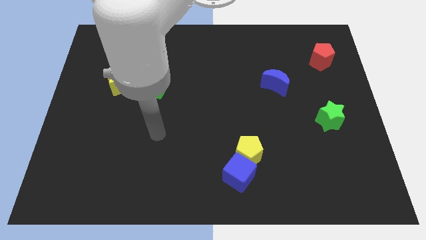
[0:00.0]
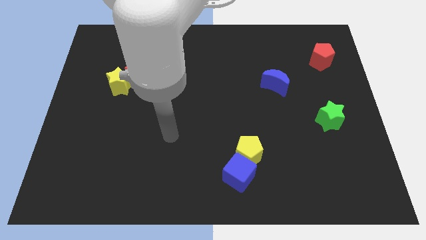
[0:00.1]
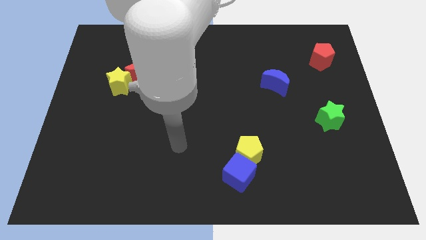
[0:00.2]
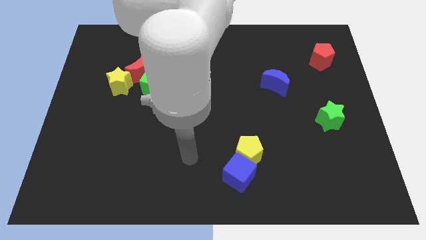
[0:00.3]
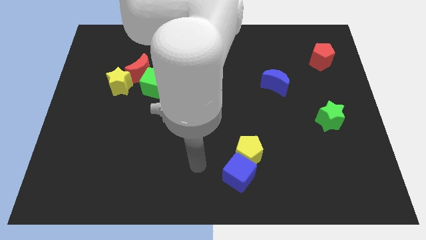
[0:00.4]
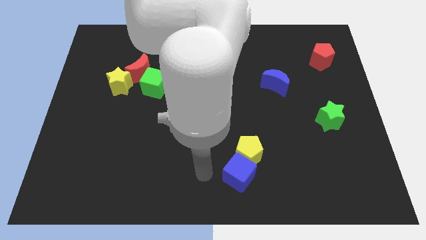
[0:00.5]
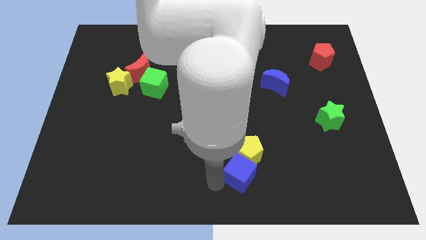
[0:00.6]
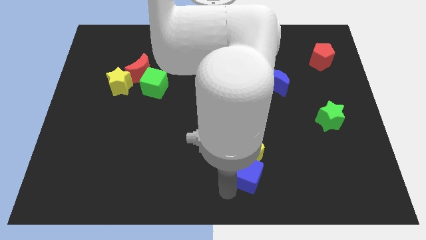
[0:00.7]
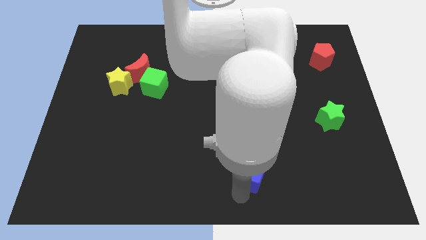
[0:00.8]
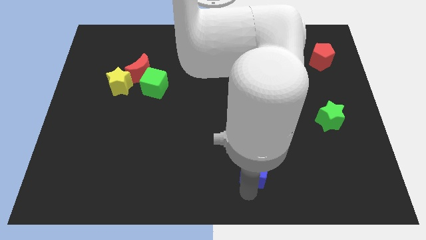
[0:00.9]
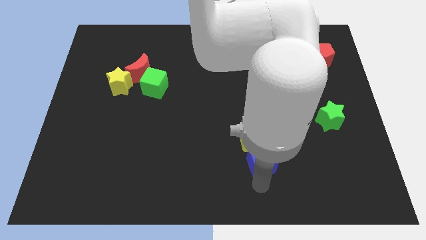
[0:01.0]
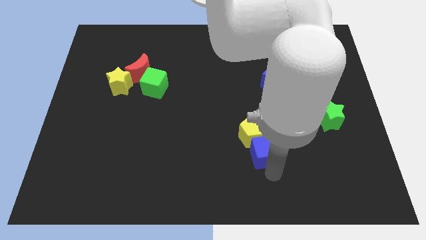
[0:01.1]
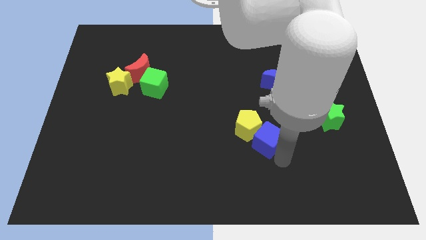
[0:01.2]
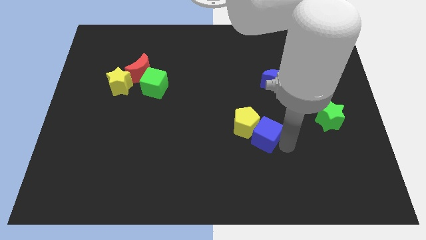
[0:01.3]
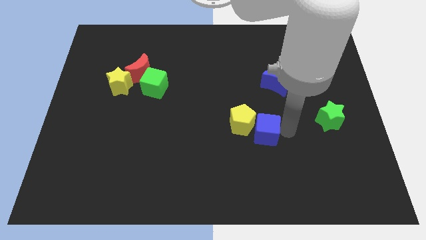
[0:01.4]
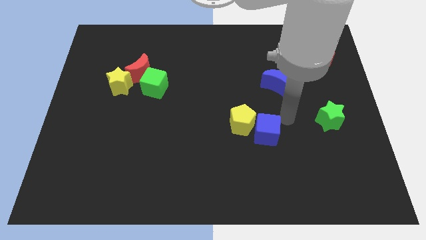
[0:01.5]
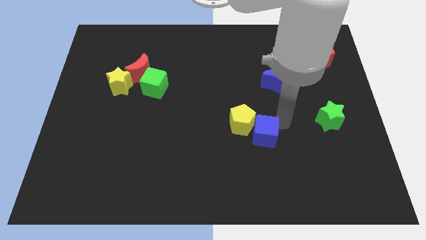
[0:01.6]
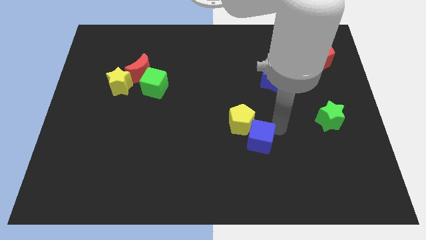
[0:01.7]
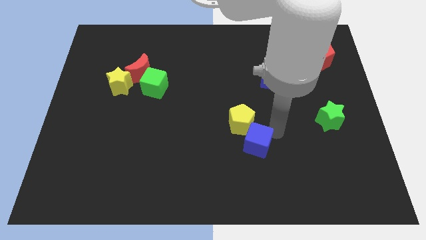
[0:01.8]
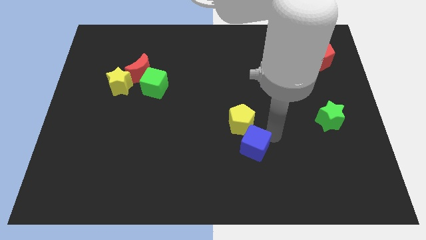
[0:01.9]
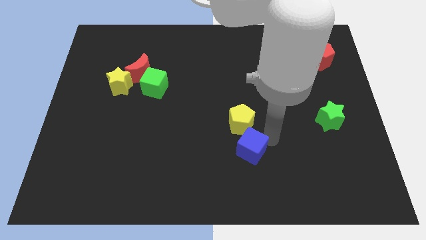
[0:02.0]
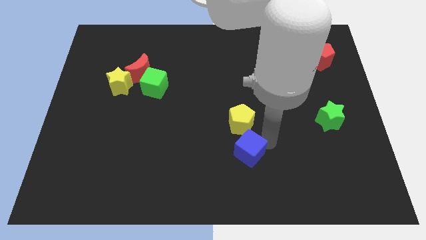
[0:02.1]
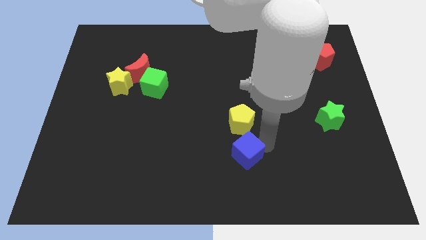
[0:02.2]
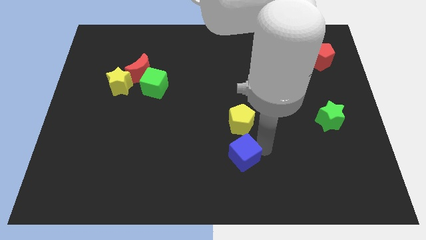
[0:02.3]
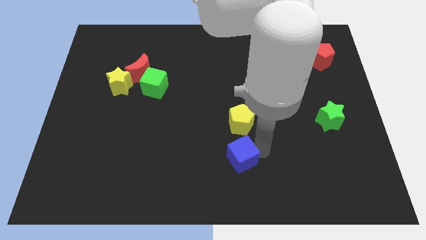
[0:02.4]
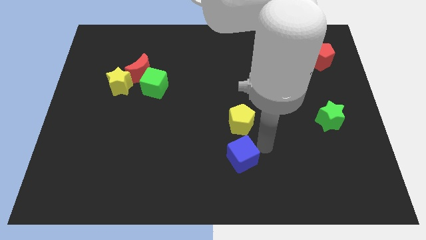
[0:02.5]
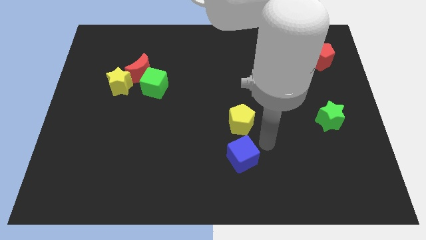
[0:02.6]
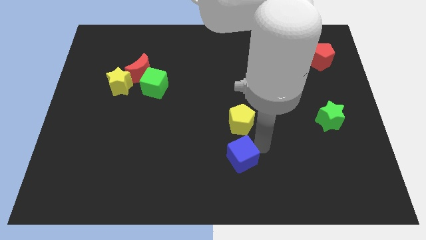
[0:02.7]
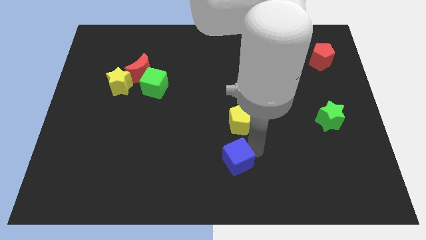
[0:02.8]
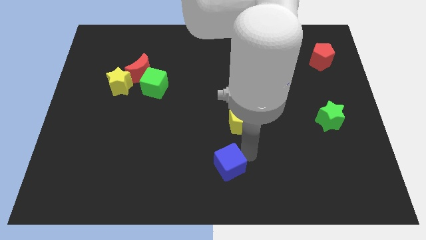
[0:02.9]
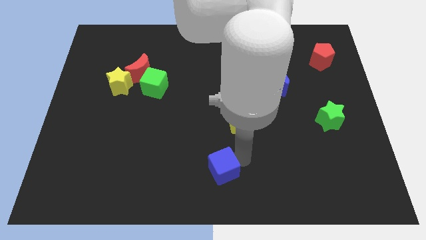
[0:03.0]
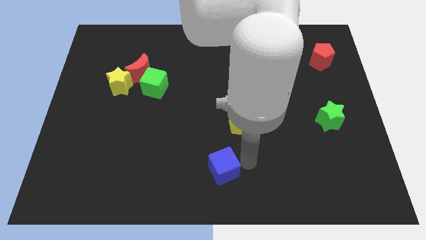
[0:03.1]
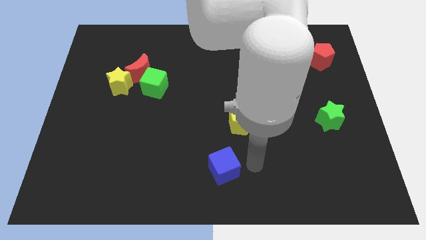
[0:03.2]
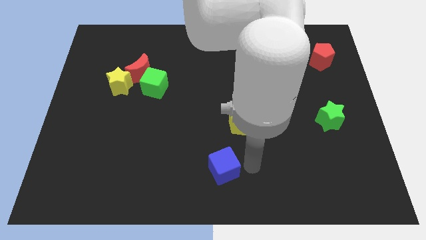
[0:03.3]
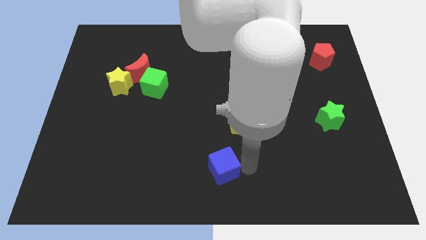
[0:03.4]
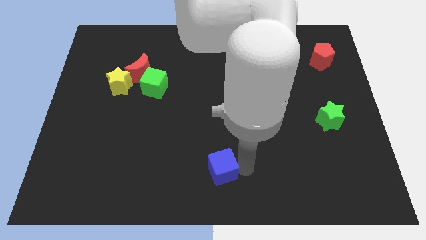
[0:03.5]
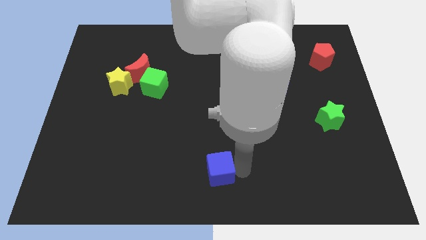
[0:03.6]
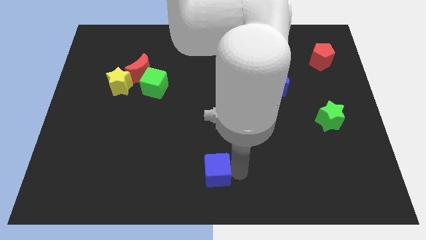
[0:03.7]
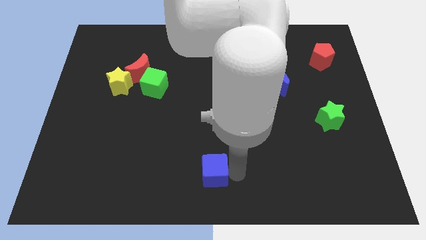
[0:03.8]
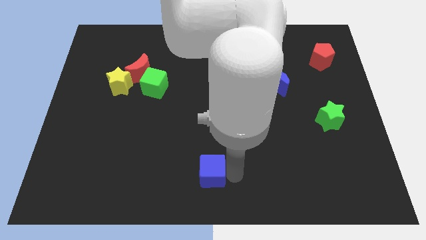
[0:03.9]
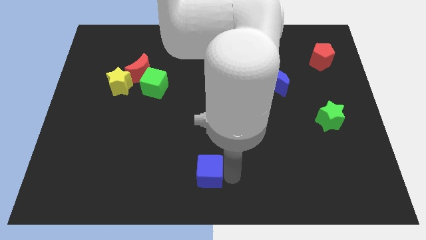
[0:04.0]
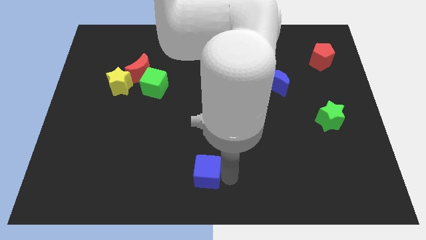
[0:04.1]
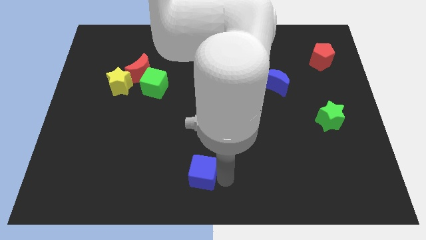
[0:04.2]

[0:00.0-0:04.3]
push the blue cube left a bit

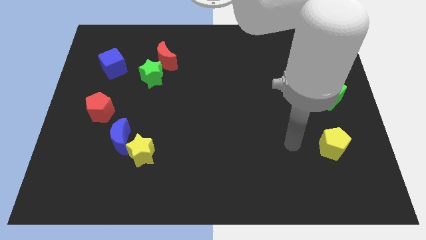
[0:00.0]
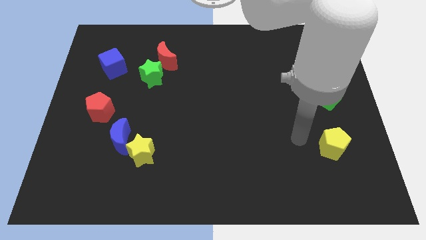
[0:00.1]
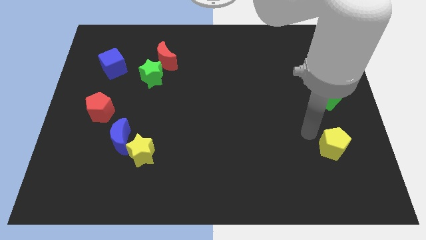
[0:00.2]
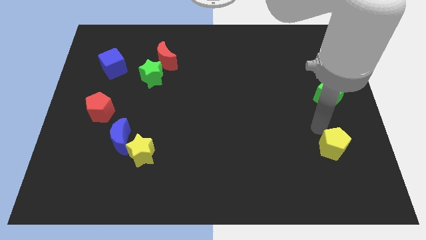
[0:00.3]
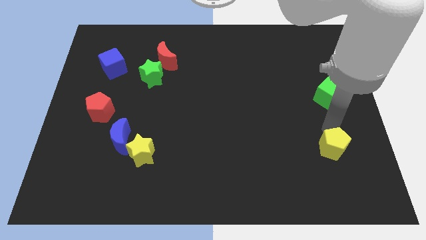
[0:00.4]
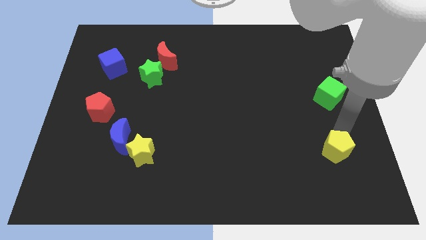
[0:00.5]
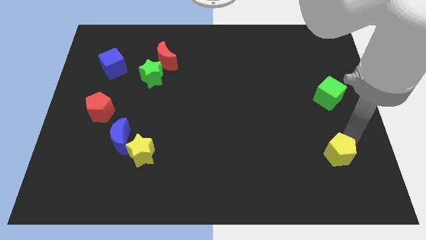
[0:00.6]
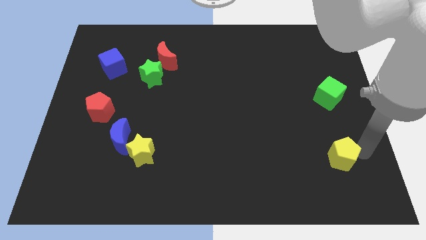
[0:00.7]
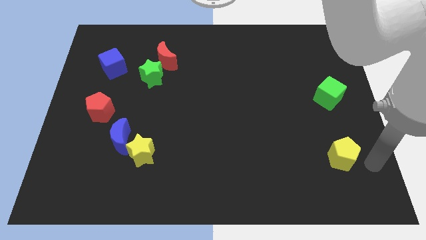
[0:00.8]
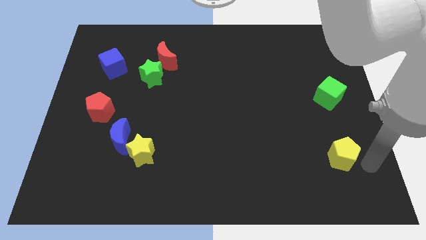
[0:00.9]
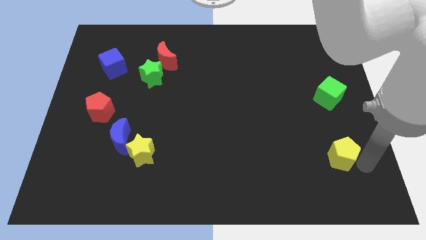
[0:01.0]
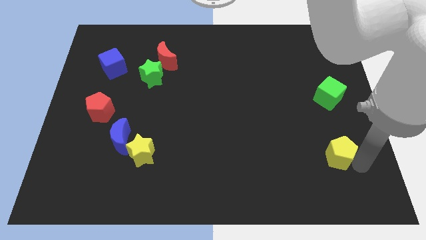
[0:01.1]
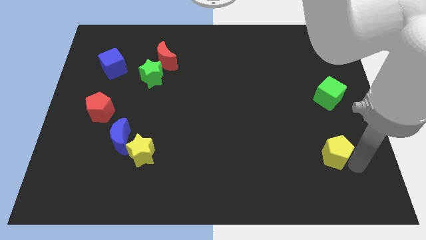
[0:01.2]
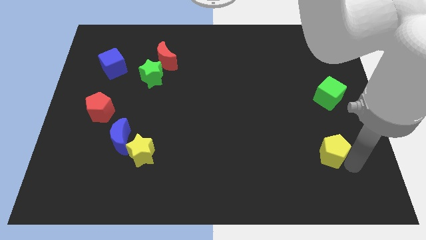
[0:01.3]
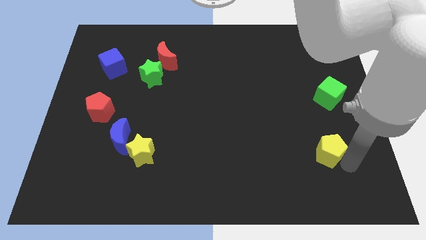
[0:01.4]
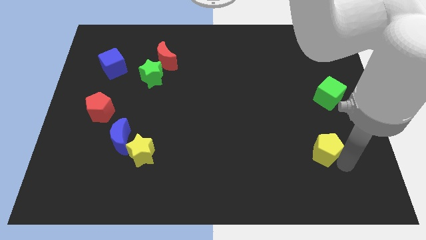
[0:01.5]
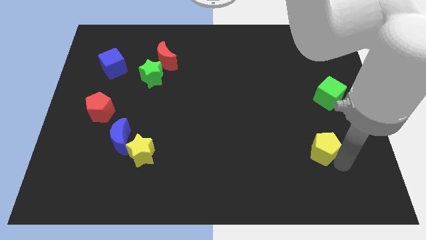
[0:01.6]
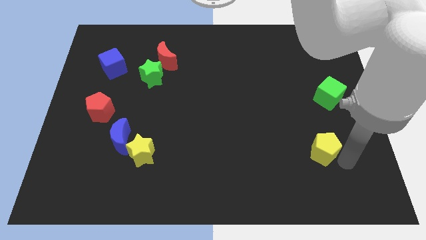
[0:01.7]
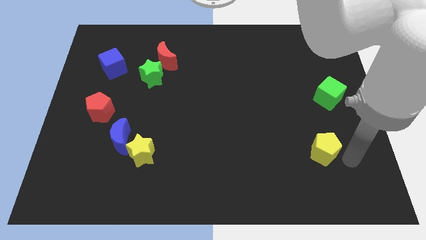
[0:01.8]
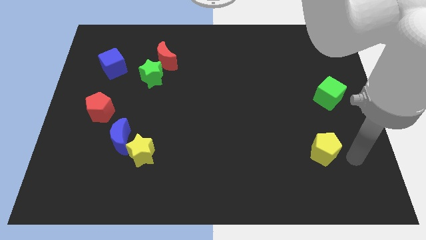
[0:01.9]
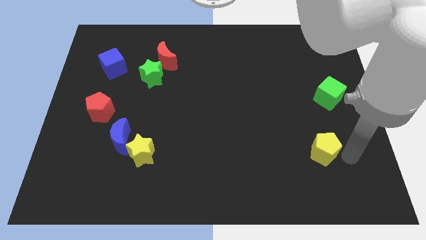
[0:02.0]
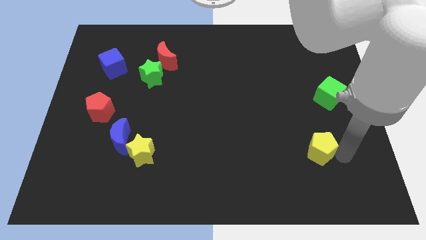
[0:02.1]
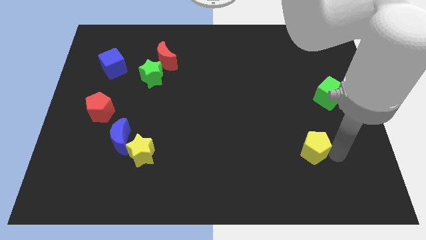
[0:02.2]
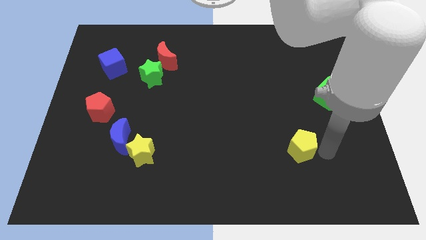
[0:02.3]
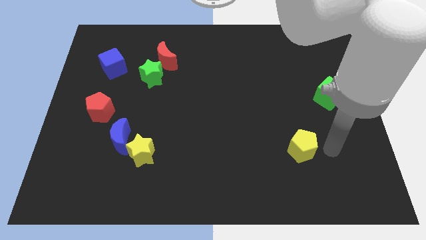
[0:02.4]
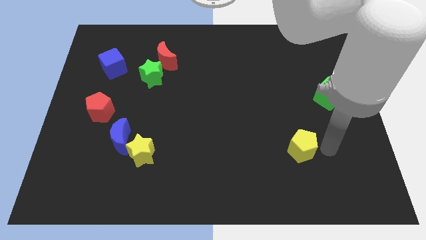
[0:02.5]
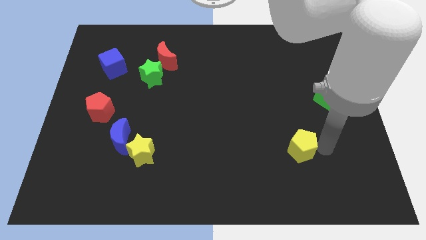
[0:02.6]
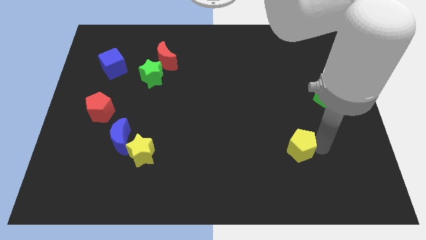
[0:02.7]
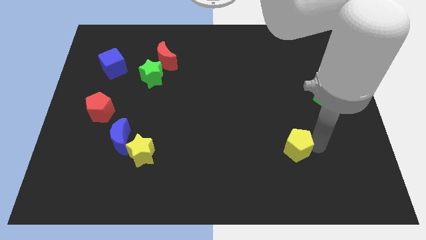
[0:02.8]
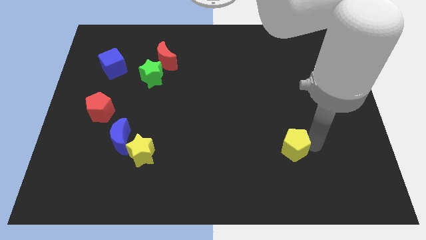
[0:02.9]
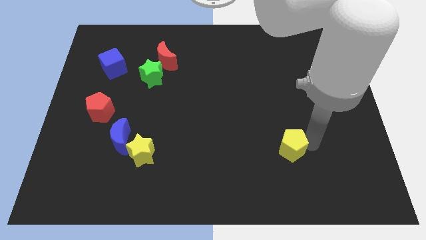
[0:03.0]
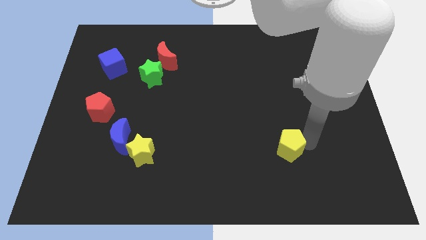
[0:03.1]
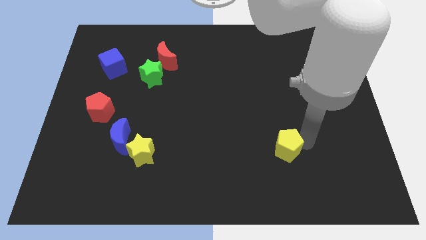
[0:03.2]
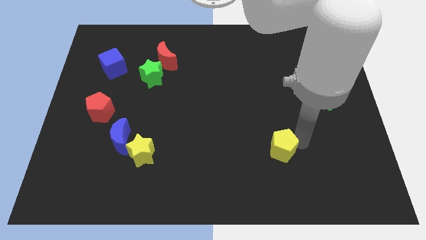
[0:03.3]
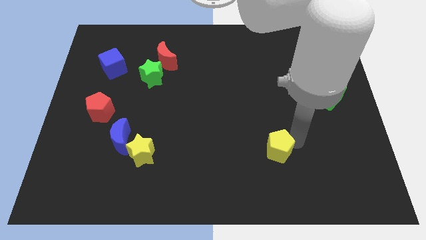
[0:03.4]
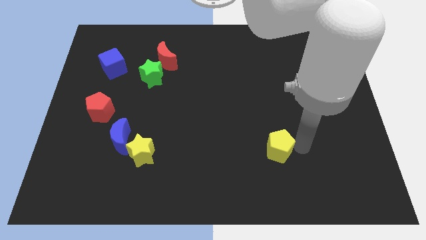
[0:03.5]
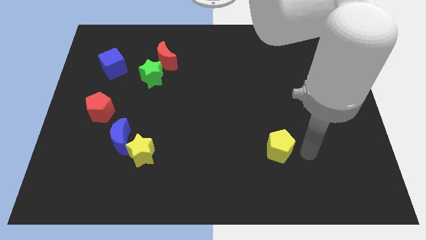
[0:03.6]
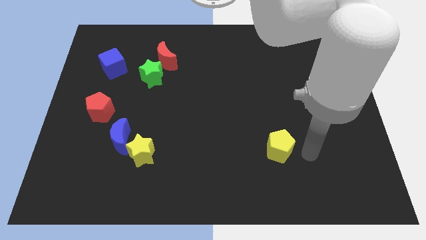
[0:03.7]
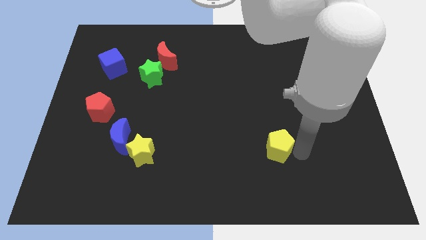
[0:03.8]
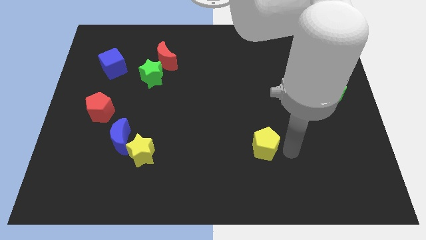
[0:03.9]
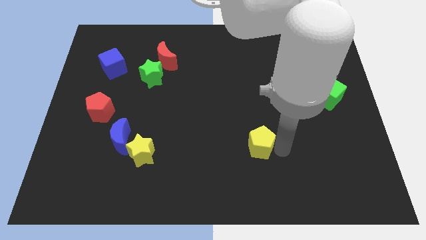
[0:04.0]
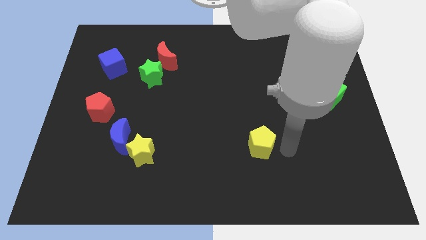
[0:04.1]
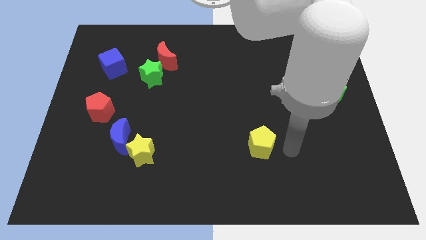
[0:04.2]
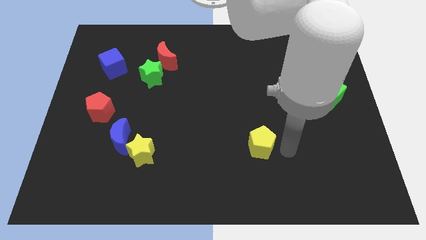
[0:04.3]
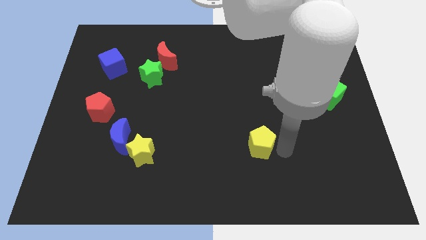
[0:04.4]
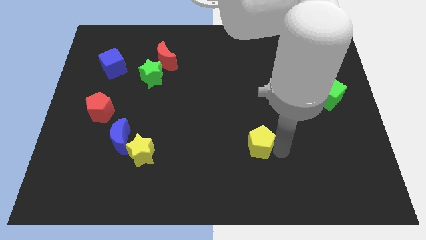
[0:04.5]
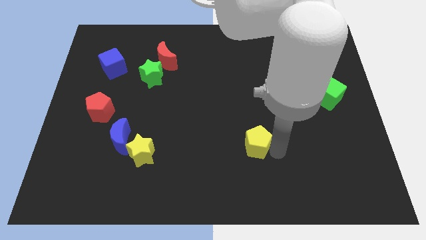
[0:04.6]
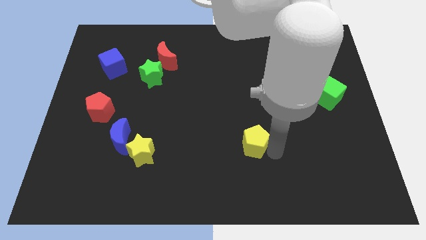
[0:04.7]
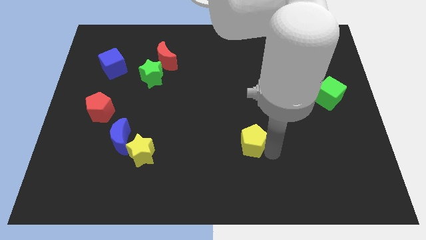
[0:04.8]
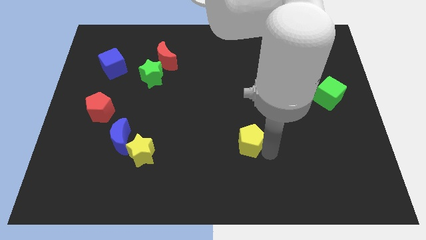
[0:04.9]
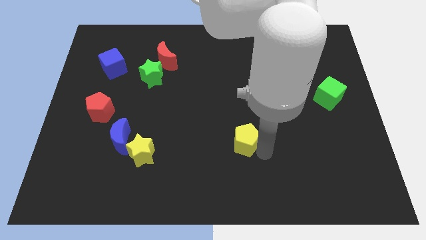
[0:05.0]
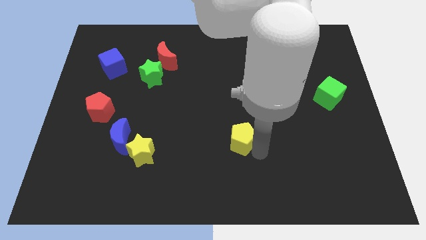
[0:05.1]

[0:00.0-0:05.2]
push the yellow pentagon to the left
